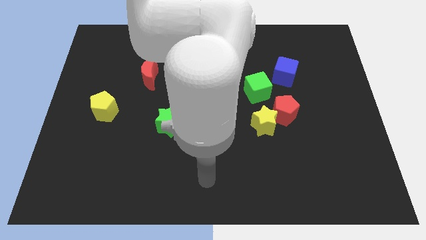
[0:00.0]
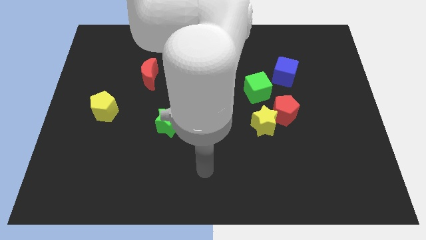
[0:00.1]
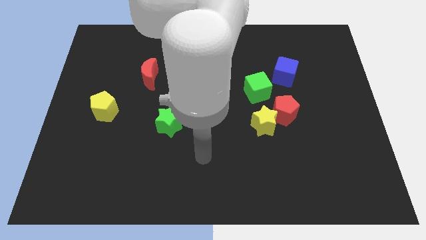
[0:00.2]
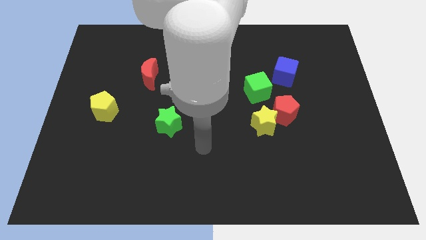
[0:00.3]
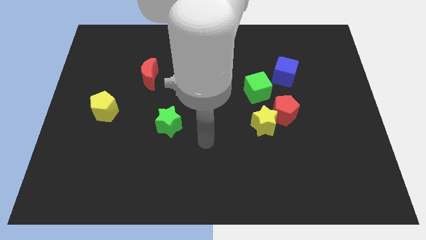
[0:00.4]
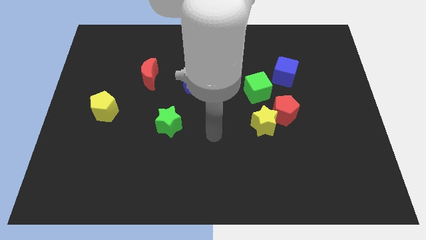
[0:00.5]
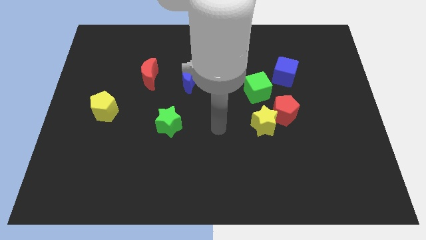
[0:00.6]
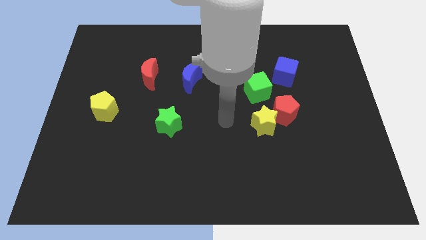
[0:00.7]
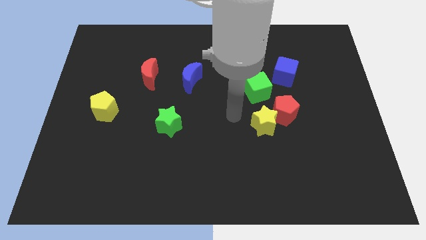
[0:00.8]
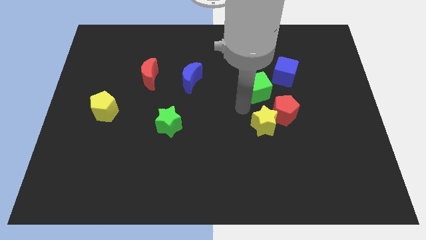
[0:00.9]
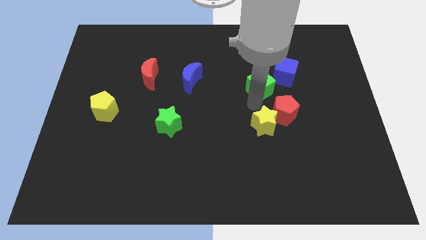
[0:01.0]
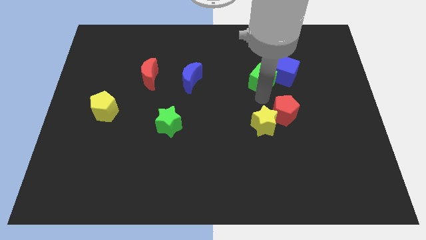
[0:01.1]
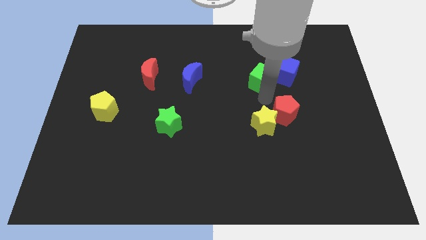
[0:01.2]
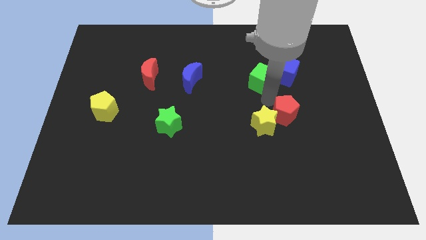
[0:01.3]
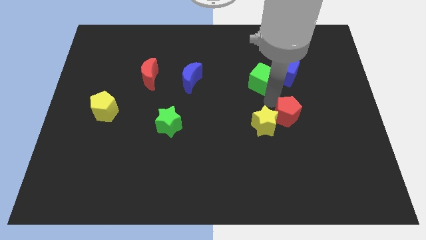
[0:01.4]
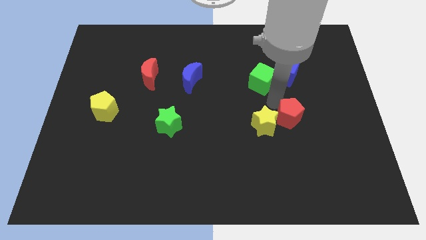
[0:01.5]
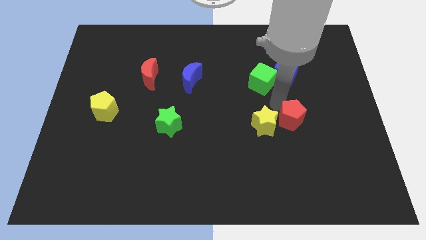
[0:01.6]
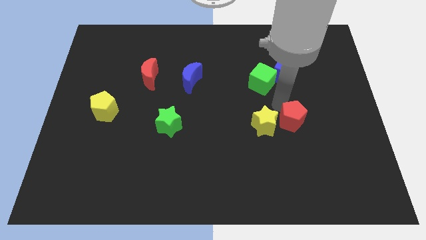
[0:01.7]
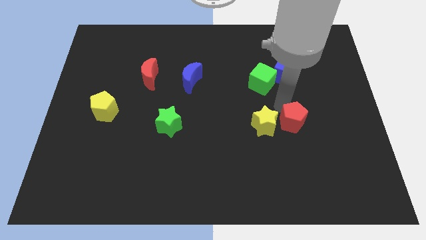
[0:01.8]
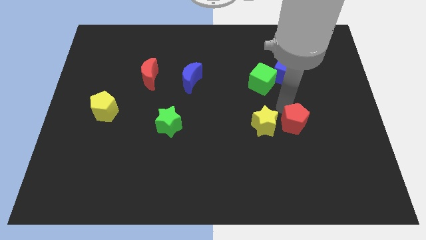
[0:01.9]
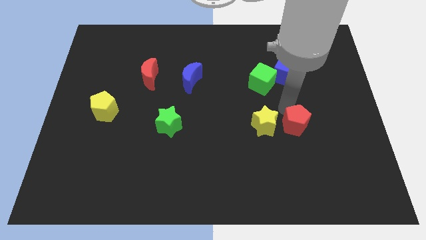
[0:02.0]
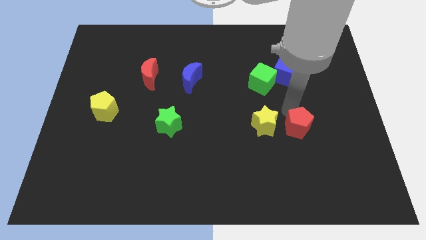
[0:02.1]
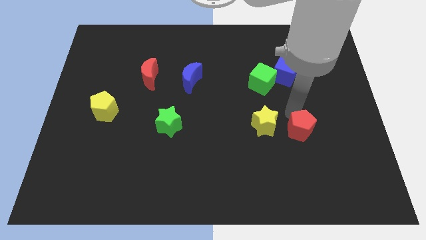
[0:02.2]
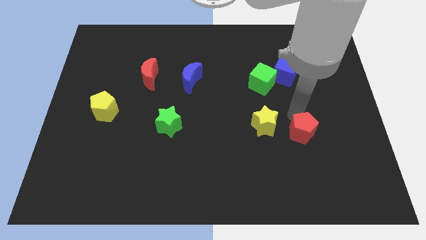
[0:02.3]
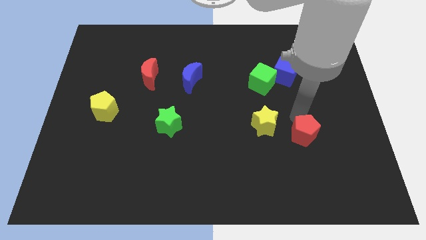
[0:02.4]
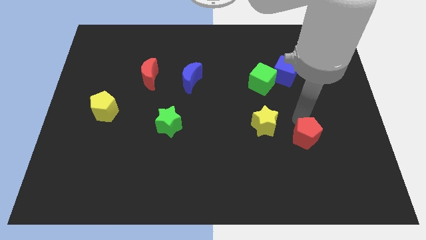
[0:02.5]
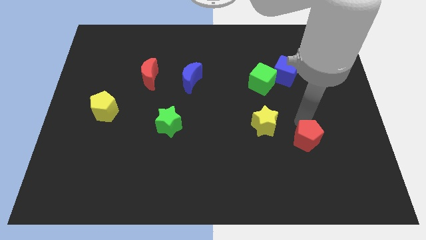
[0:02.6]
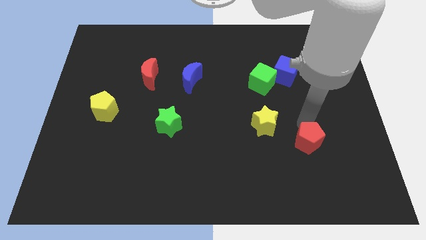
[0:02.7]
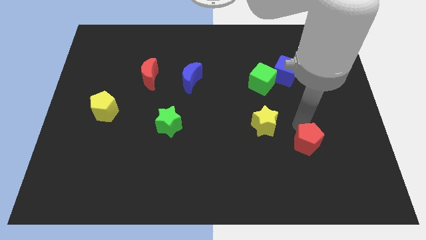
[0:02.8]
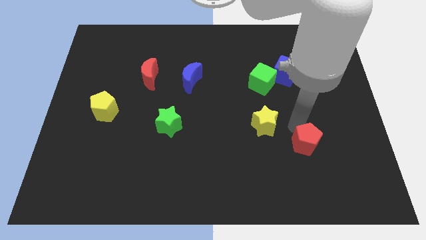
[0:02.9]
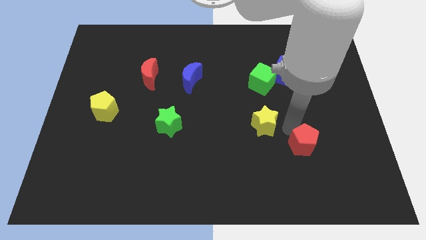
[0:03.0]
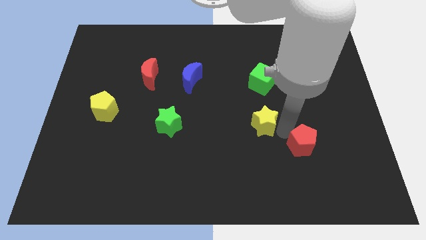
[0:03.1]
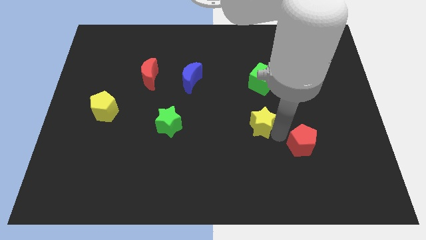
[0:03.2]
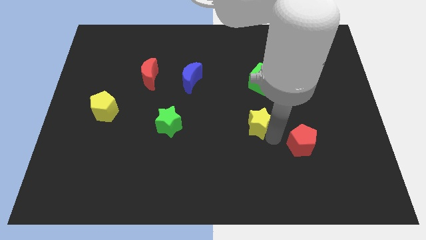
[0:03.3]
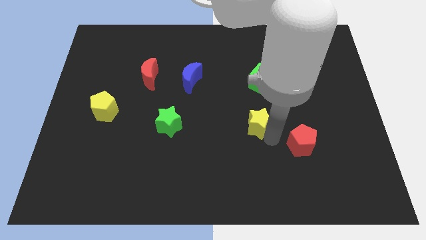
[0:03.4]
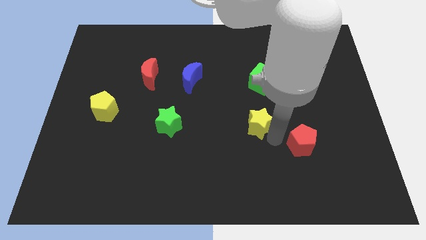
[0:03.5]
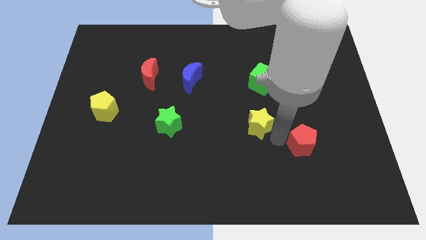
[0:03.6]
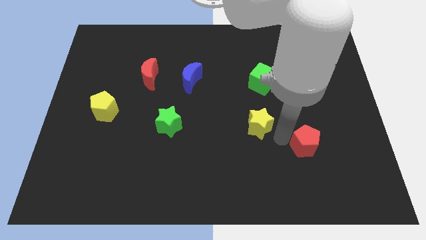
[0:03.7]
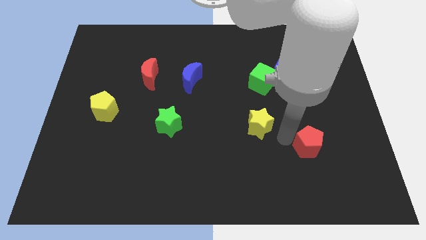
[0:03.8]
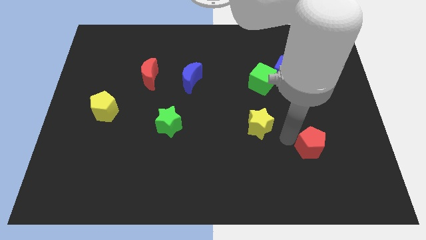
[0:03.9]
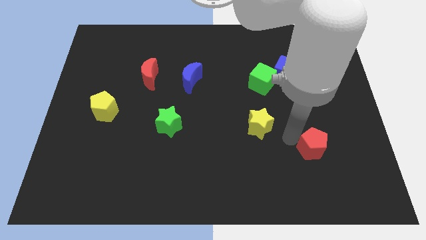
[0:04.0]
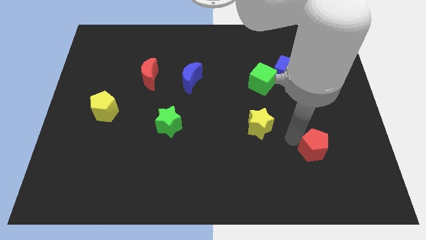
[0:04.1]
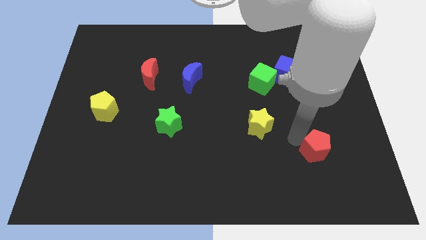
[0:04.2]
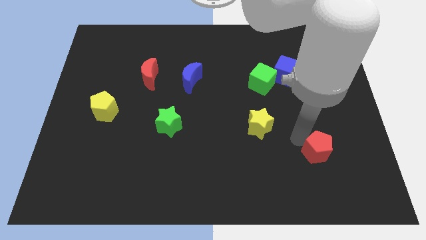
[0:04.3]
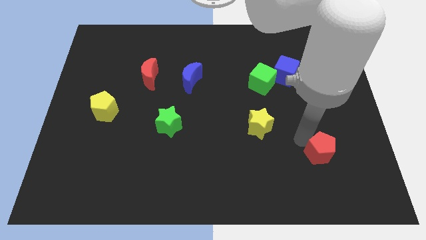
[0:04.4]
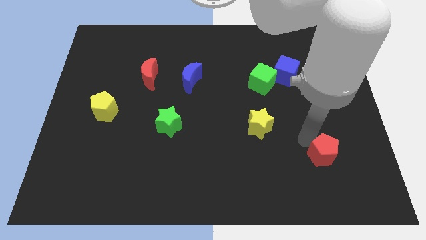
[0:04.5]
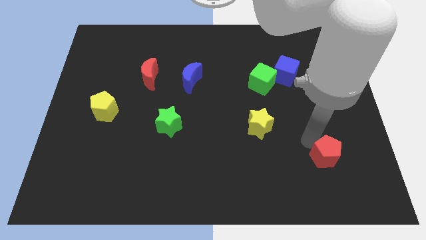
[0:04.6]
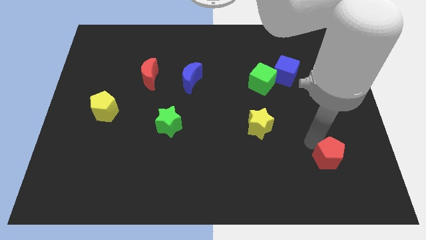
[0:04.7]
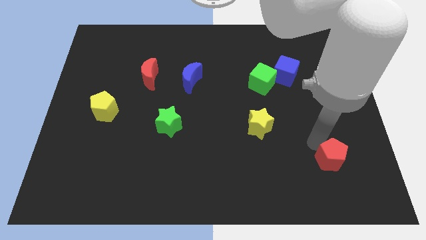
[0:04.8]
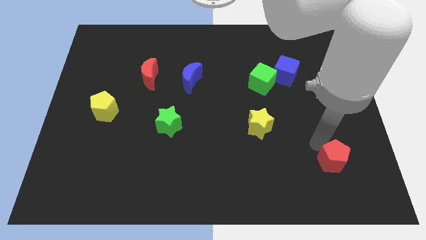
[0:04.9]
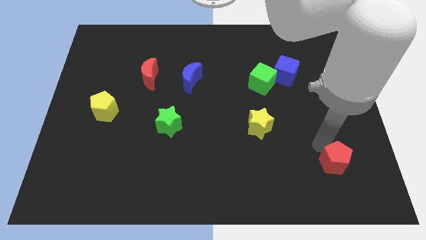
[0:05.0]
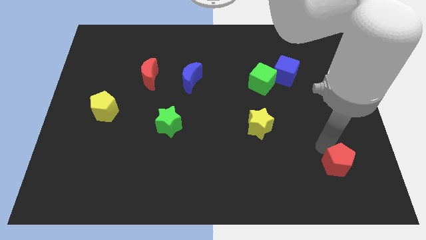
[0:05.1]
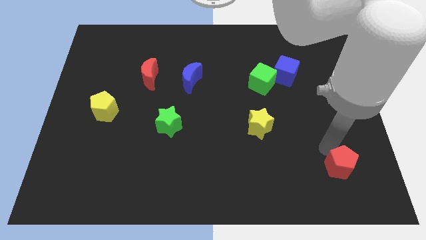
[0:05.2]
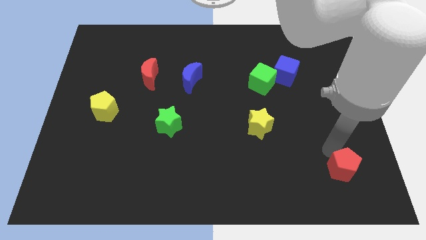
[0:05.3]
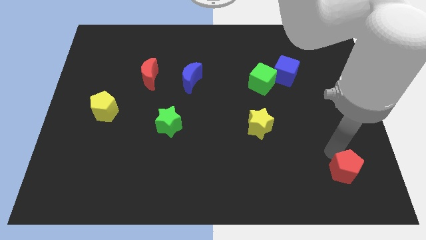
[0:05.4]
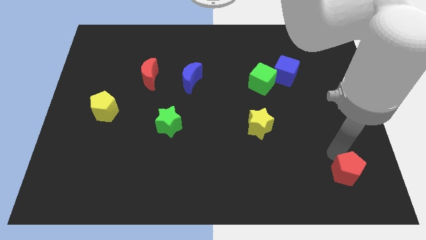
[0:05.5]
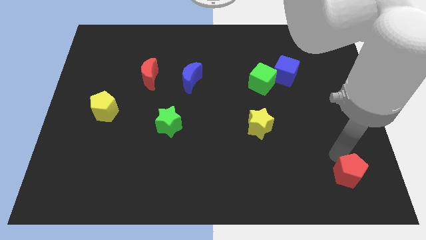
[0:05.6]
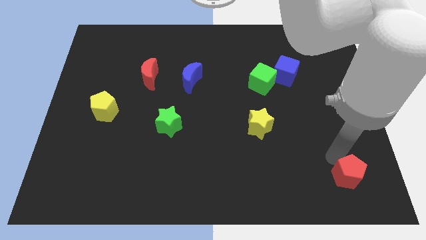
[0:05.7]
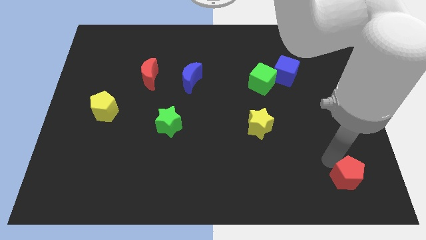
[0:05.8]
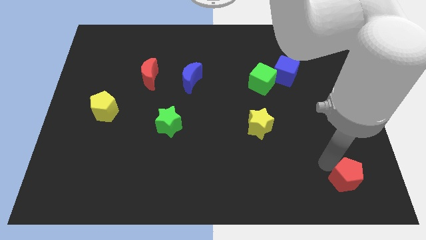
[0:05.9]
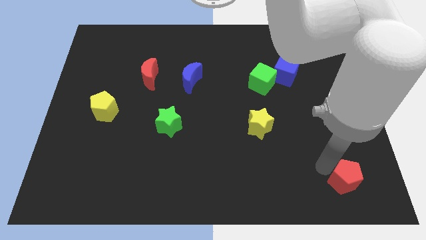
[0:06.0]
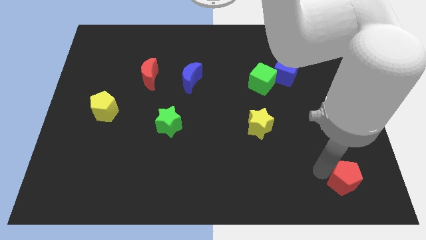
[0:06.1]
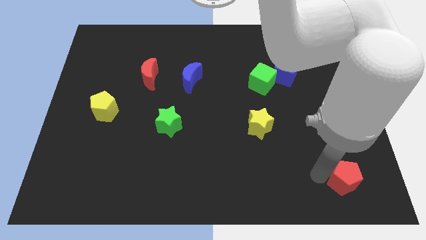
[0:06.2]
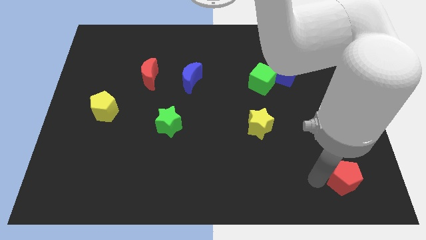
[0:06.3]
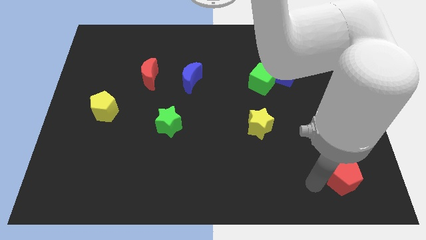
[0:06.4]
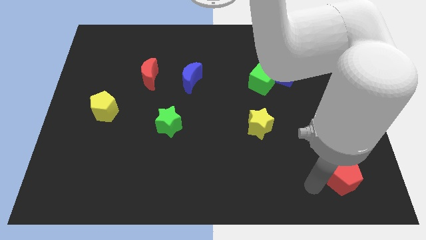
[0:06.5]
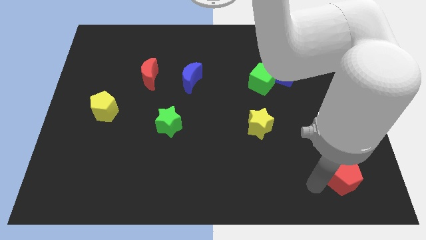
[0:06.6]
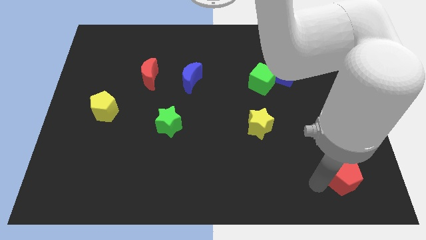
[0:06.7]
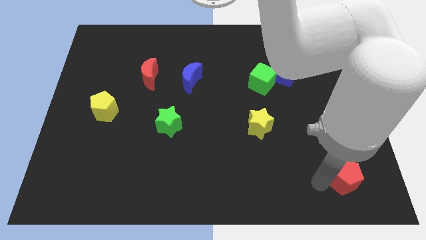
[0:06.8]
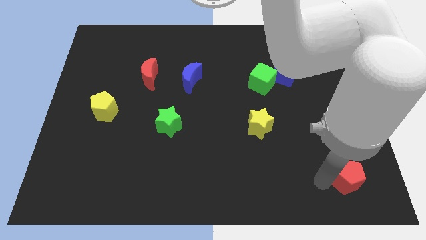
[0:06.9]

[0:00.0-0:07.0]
slide the red pentagon to the bottom right
